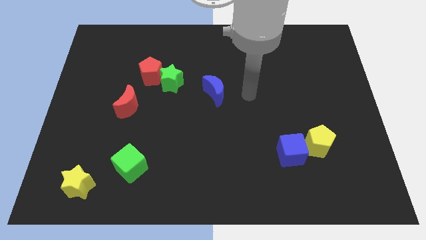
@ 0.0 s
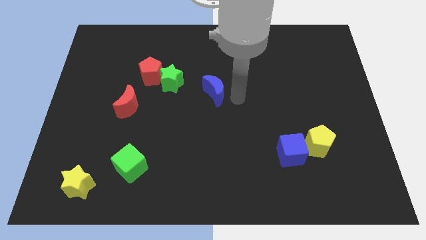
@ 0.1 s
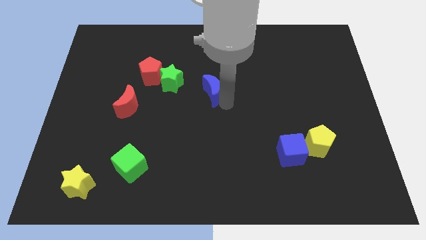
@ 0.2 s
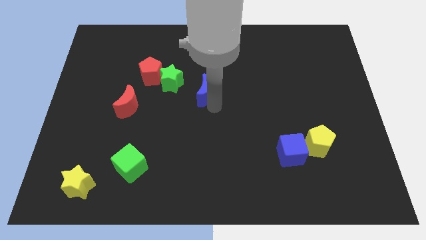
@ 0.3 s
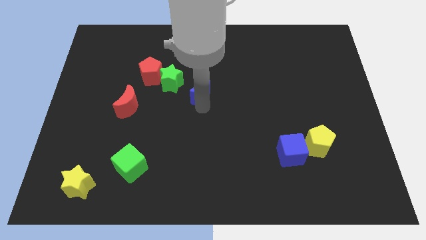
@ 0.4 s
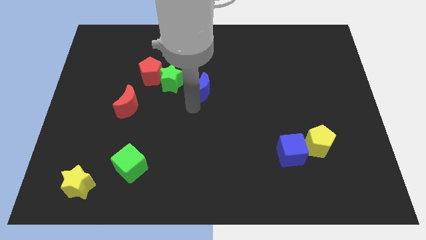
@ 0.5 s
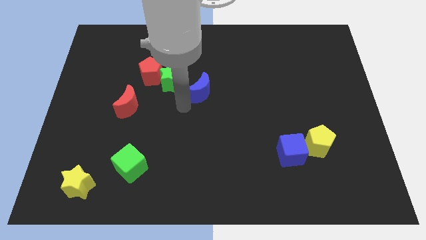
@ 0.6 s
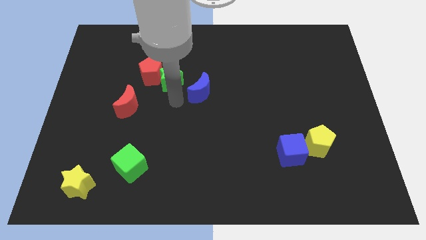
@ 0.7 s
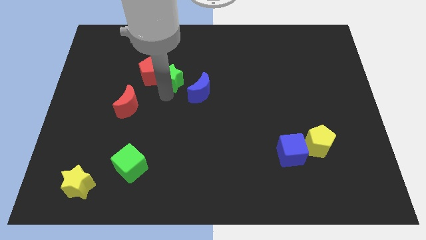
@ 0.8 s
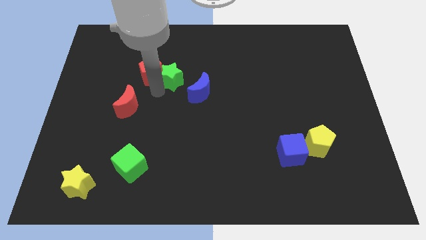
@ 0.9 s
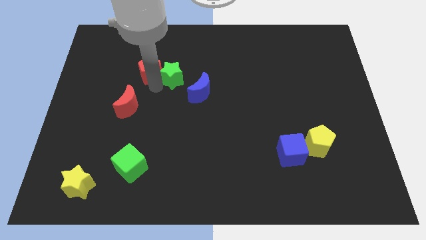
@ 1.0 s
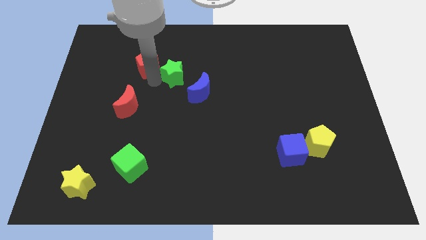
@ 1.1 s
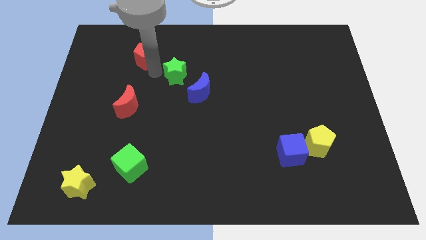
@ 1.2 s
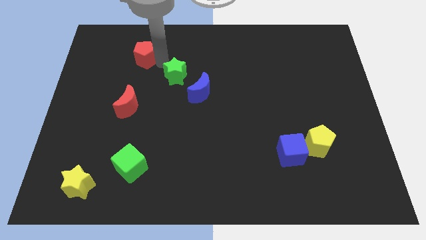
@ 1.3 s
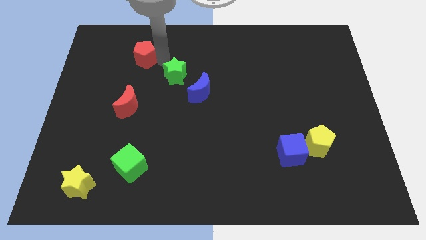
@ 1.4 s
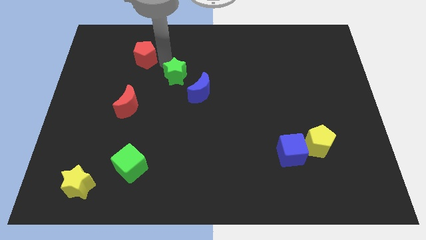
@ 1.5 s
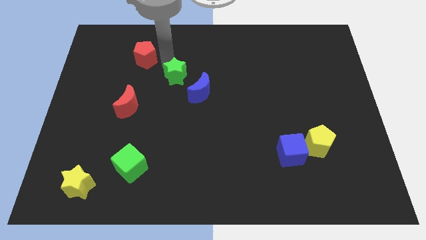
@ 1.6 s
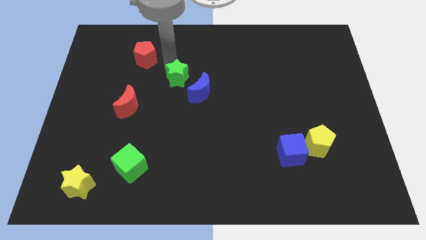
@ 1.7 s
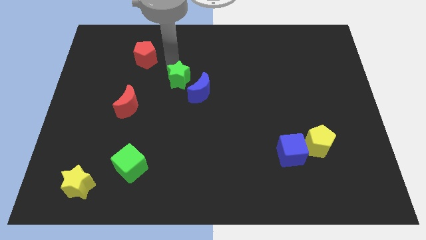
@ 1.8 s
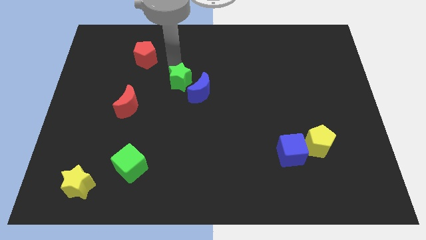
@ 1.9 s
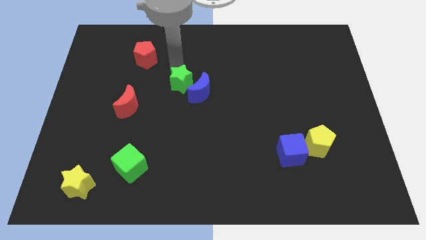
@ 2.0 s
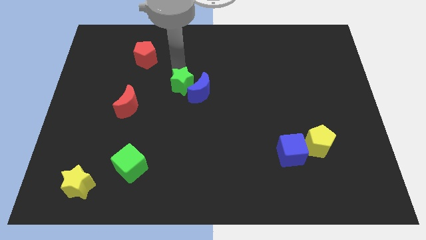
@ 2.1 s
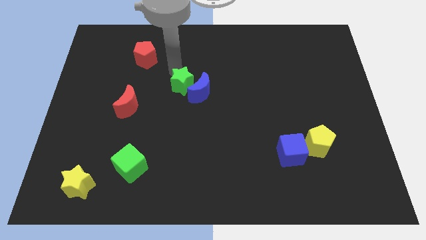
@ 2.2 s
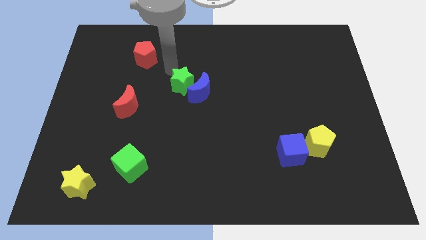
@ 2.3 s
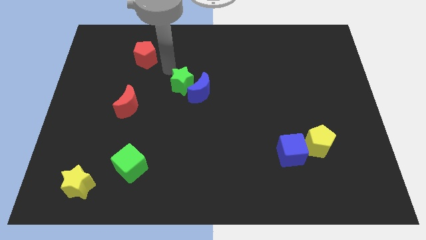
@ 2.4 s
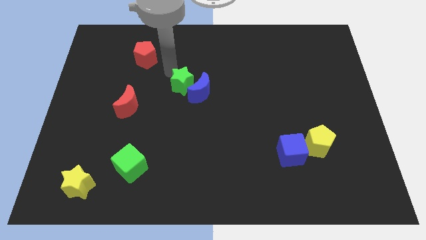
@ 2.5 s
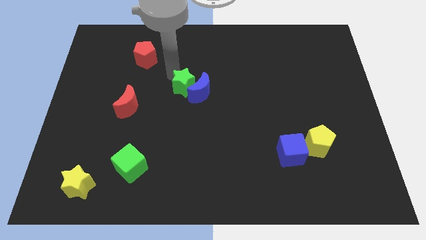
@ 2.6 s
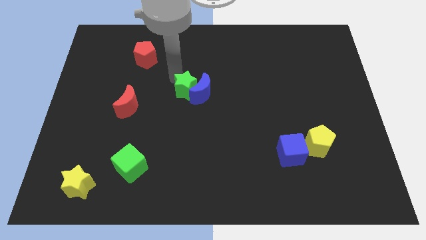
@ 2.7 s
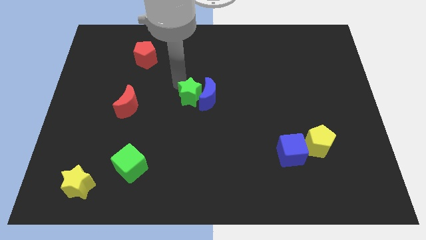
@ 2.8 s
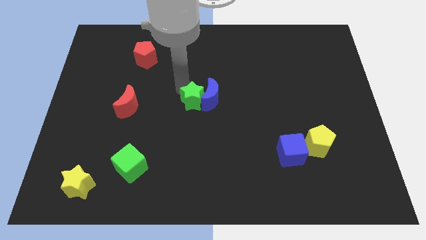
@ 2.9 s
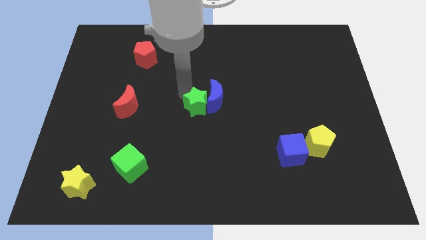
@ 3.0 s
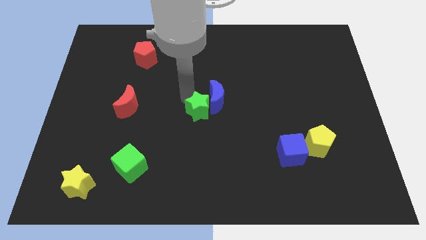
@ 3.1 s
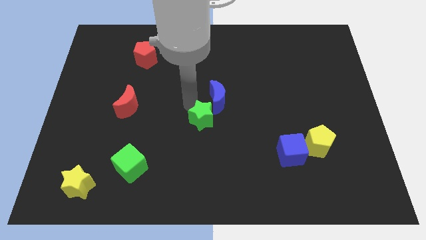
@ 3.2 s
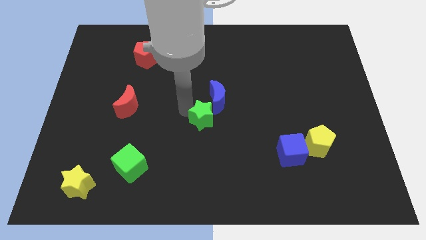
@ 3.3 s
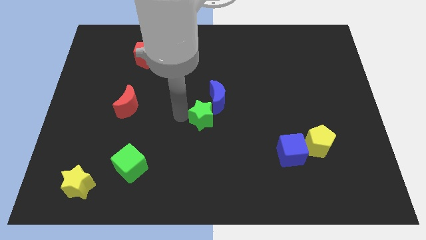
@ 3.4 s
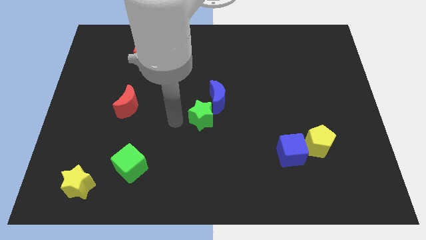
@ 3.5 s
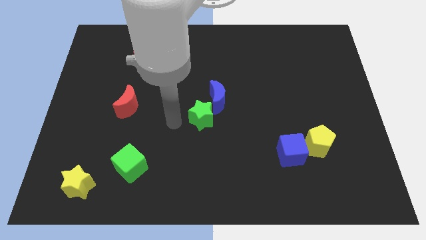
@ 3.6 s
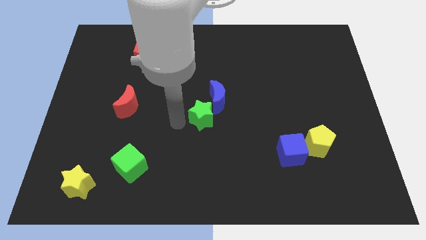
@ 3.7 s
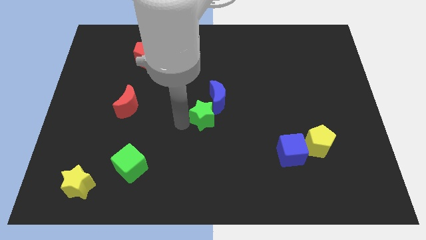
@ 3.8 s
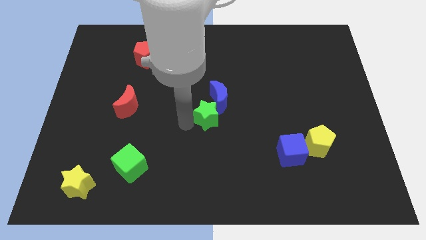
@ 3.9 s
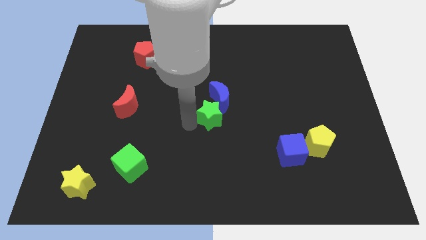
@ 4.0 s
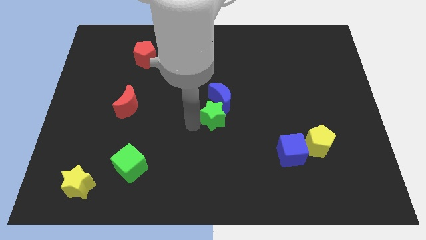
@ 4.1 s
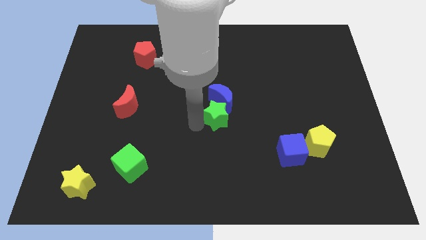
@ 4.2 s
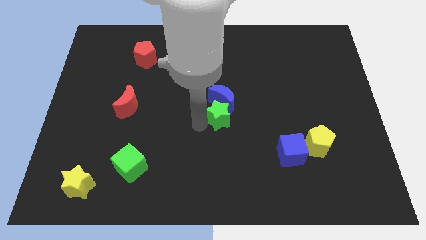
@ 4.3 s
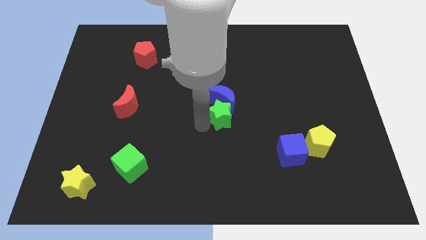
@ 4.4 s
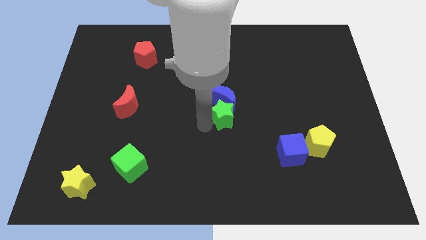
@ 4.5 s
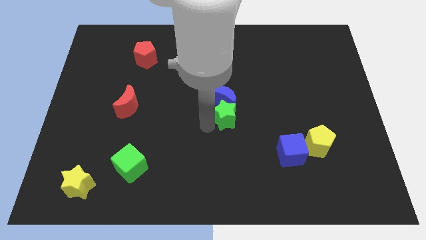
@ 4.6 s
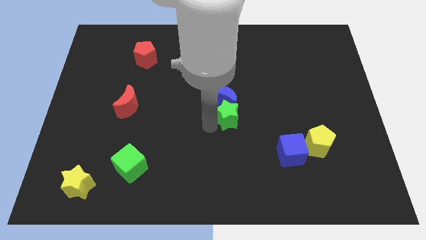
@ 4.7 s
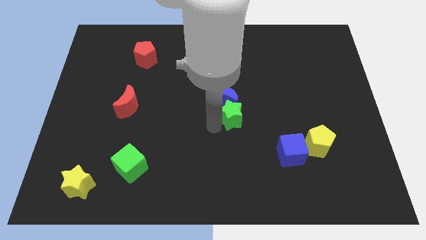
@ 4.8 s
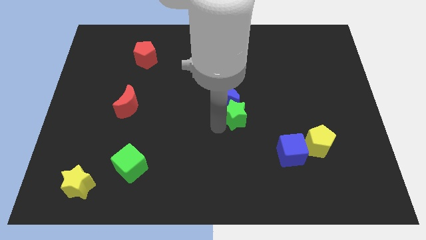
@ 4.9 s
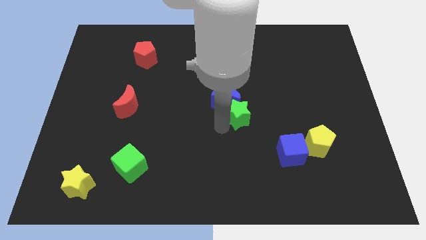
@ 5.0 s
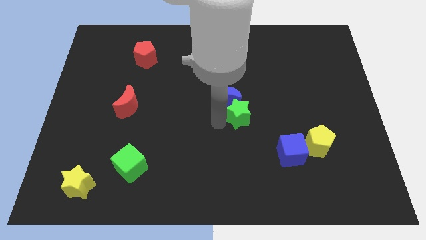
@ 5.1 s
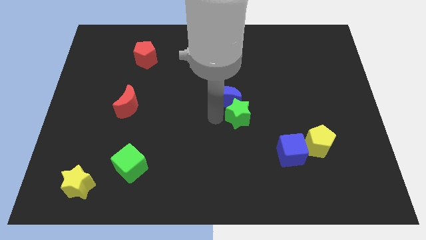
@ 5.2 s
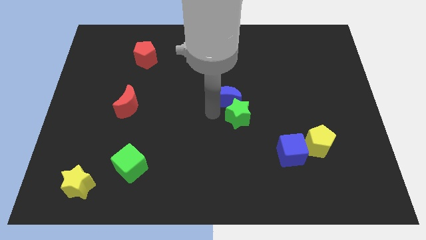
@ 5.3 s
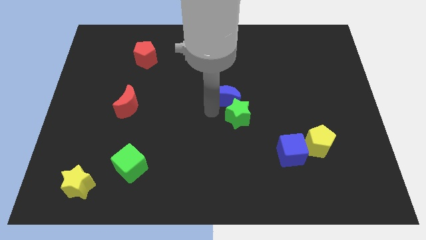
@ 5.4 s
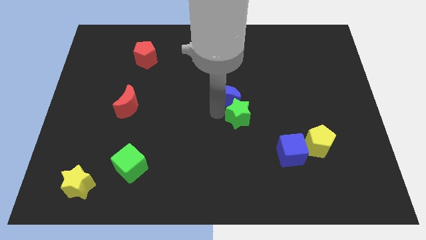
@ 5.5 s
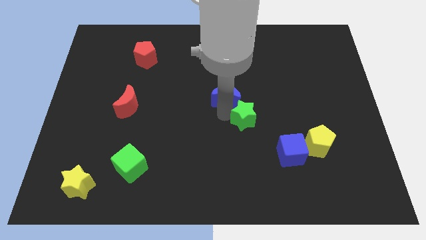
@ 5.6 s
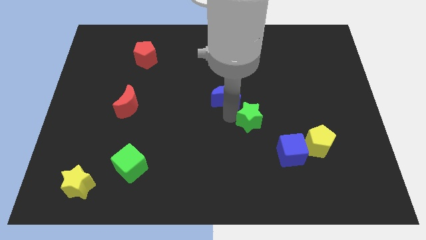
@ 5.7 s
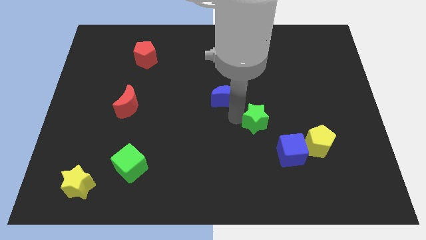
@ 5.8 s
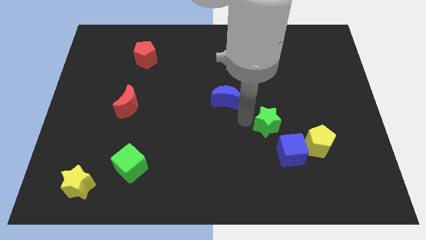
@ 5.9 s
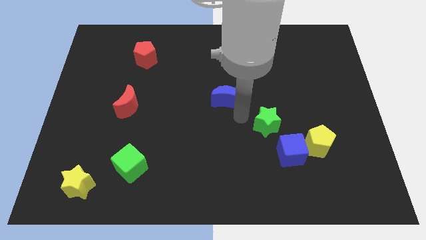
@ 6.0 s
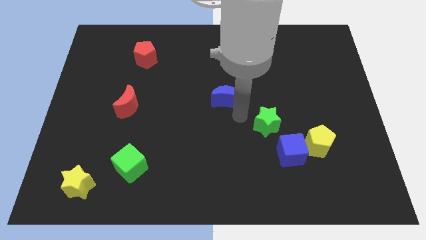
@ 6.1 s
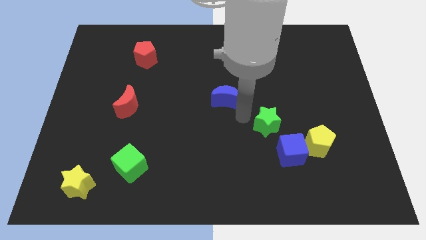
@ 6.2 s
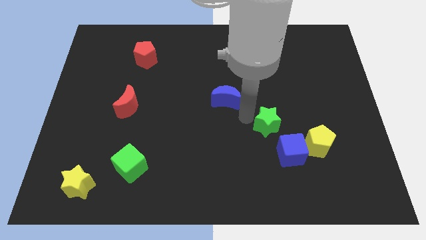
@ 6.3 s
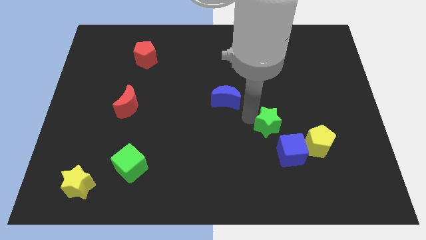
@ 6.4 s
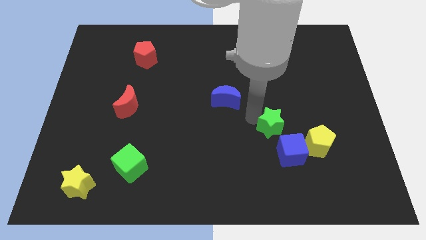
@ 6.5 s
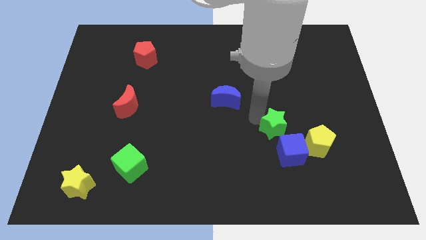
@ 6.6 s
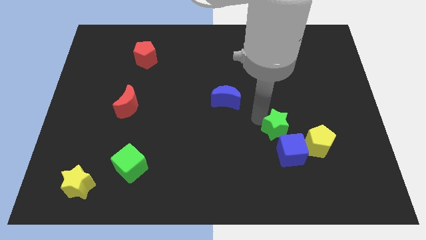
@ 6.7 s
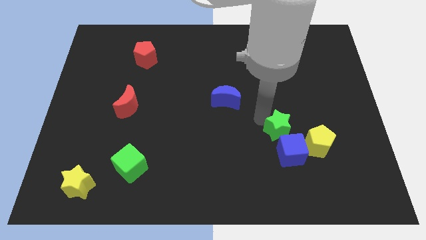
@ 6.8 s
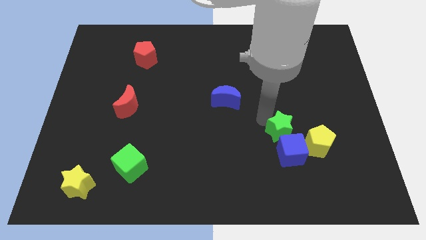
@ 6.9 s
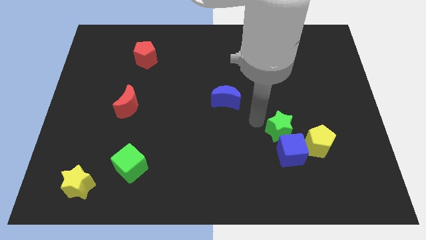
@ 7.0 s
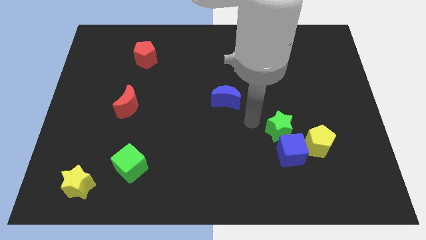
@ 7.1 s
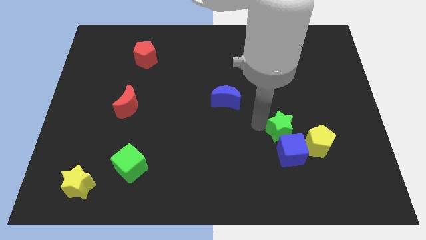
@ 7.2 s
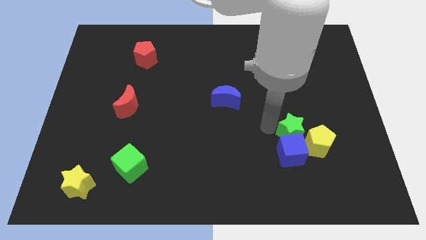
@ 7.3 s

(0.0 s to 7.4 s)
slide the green star next to the yellow pentagon
